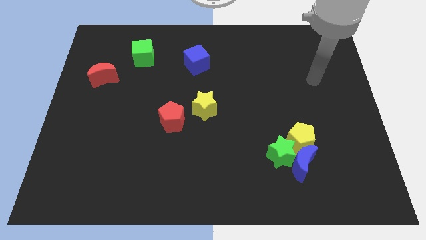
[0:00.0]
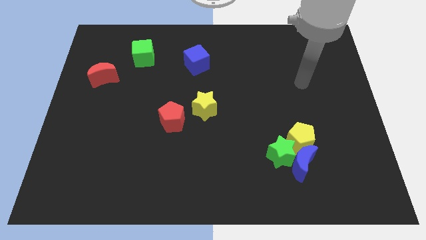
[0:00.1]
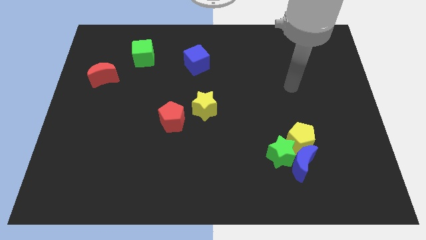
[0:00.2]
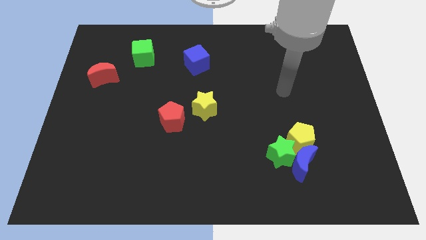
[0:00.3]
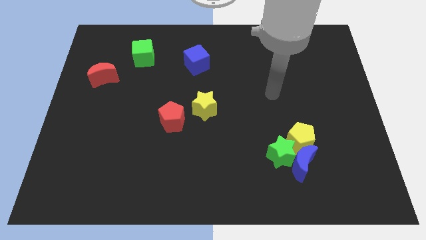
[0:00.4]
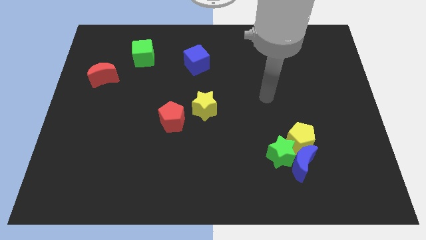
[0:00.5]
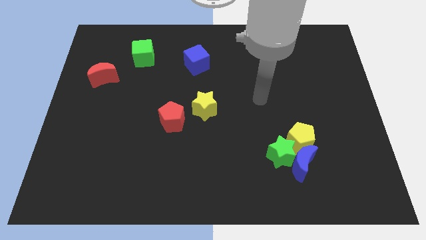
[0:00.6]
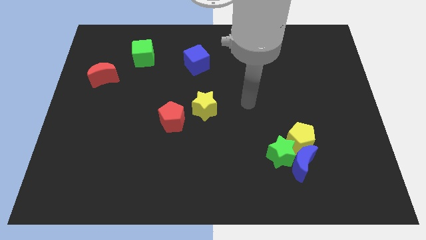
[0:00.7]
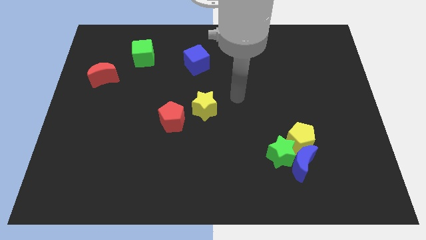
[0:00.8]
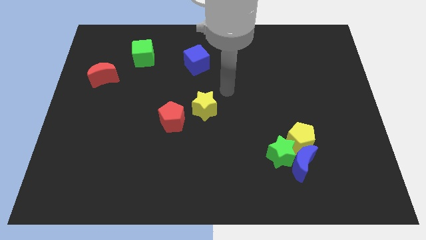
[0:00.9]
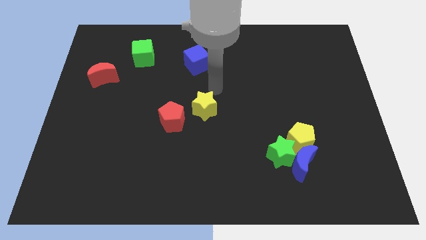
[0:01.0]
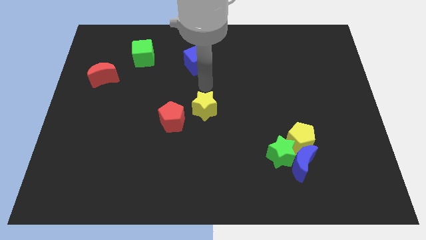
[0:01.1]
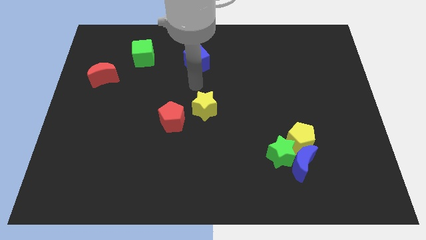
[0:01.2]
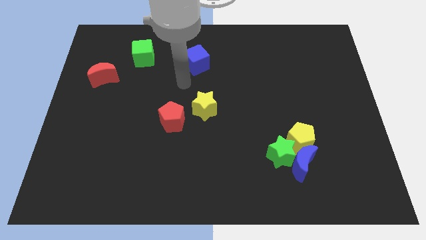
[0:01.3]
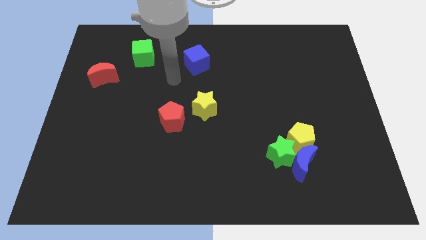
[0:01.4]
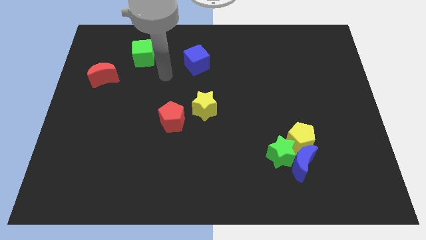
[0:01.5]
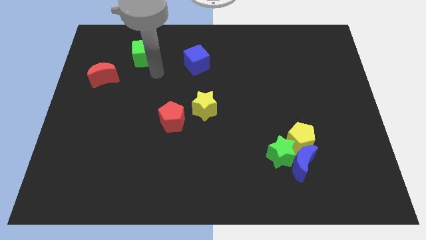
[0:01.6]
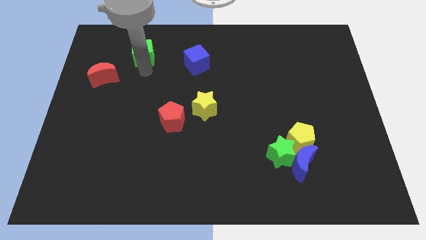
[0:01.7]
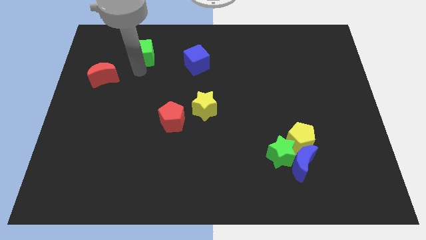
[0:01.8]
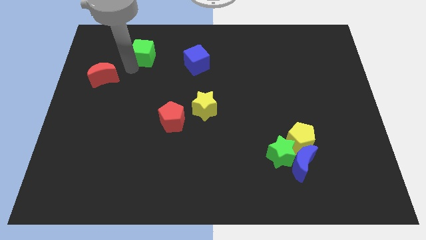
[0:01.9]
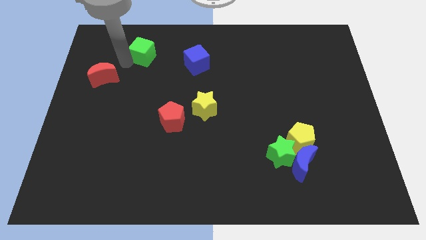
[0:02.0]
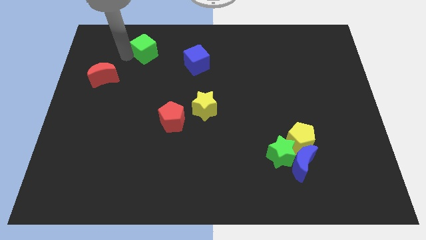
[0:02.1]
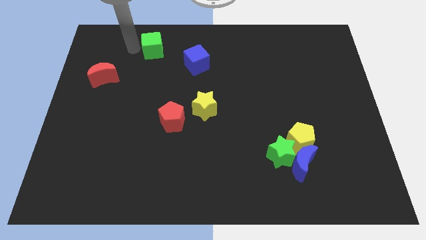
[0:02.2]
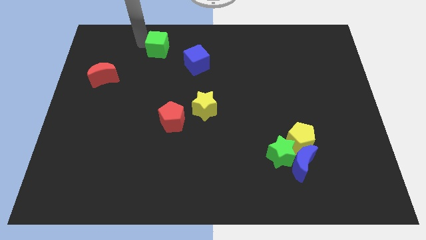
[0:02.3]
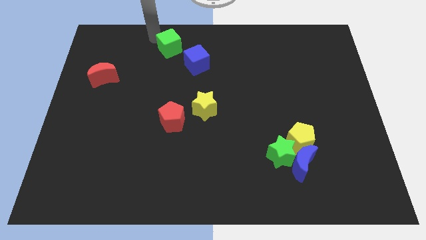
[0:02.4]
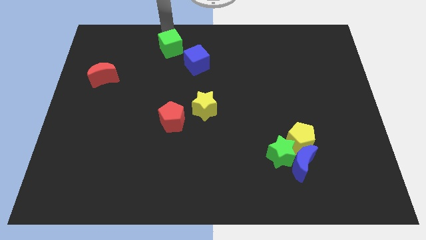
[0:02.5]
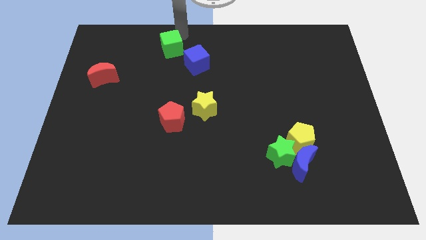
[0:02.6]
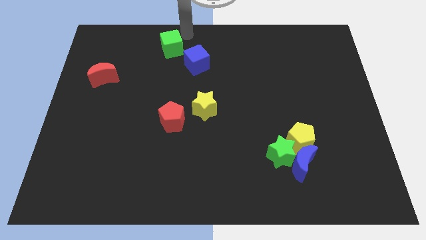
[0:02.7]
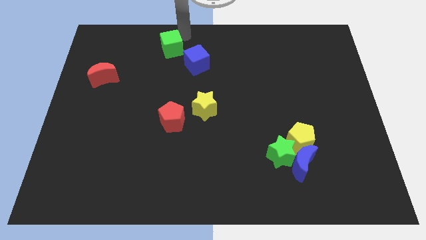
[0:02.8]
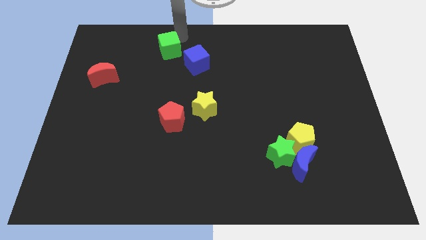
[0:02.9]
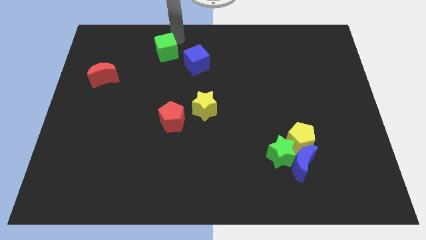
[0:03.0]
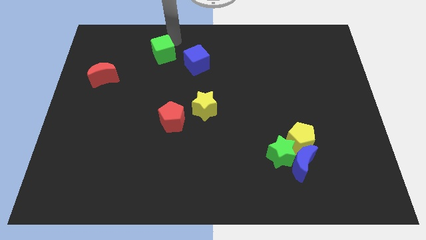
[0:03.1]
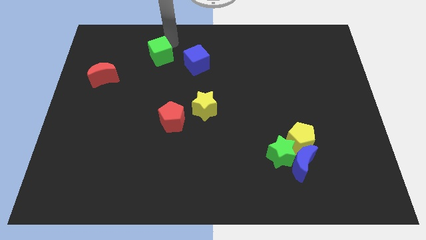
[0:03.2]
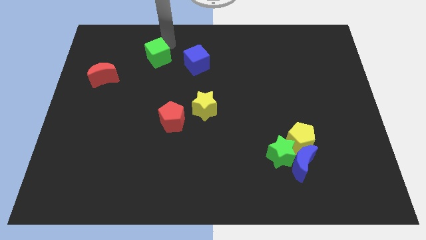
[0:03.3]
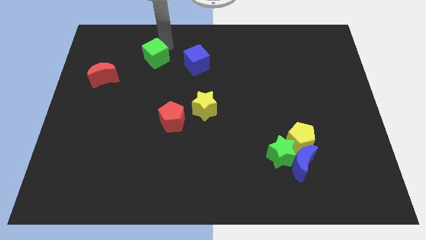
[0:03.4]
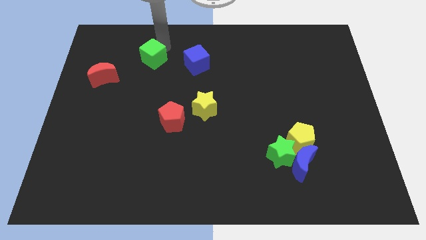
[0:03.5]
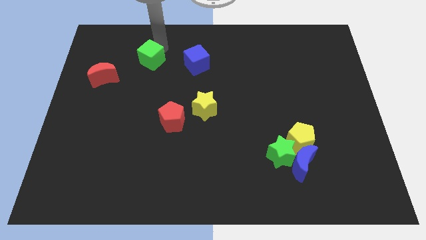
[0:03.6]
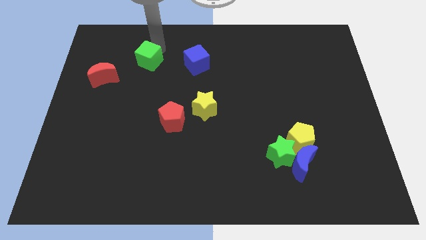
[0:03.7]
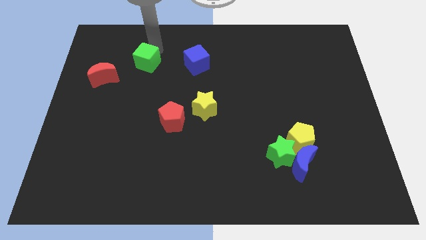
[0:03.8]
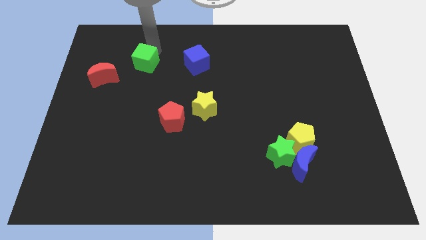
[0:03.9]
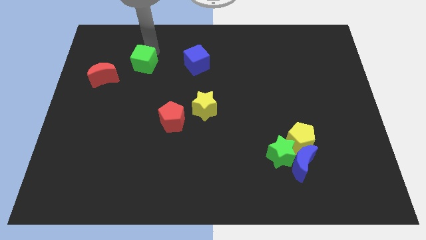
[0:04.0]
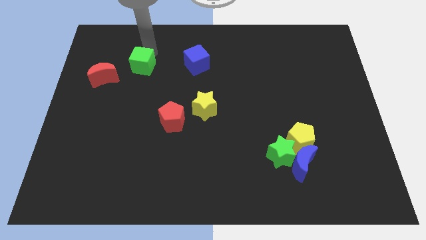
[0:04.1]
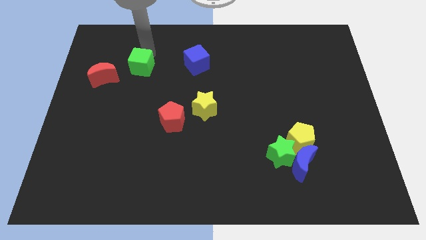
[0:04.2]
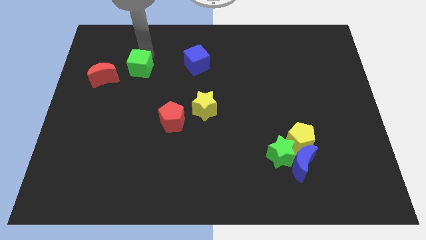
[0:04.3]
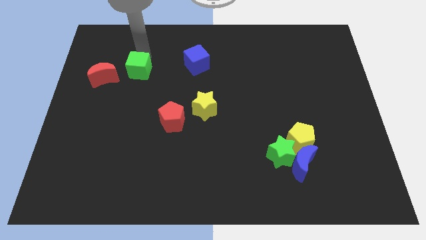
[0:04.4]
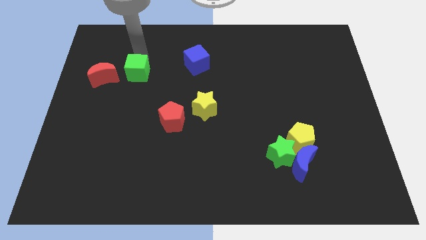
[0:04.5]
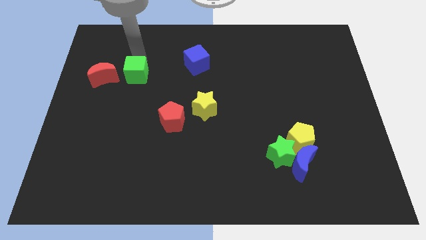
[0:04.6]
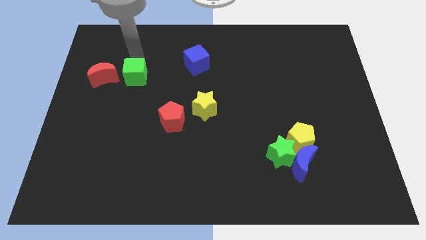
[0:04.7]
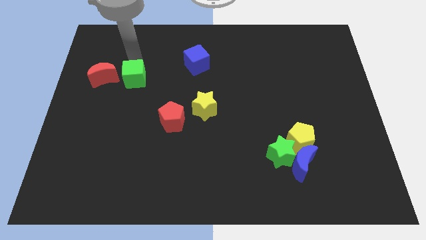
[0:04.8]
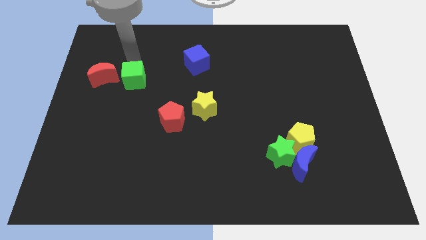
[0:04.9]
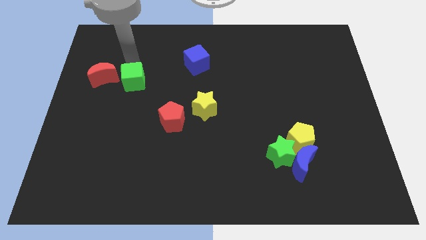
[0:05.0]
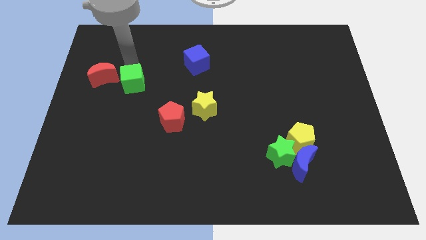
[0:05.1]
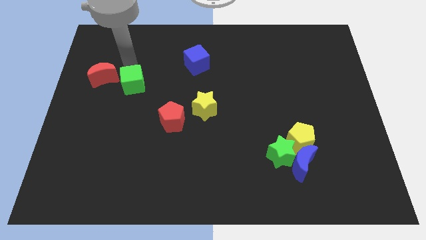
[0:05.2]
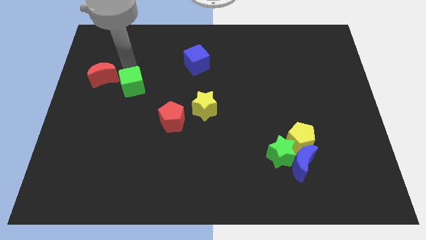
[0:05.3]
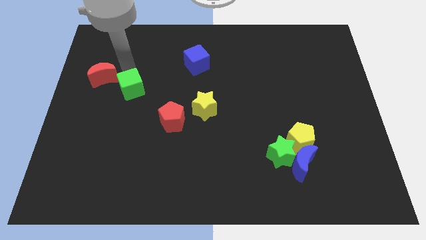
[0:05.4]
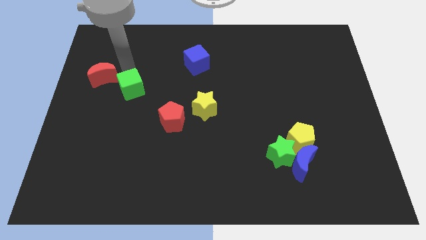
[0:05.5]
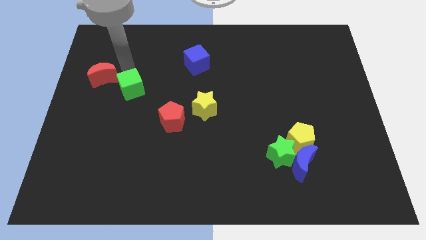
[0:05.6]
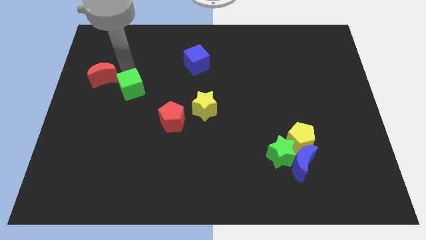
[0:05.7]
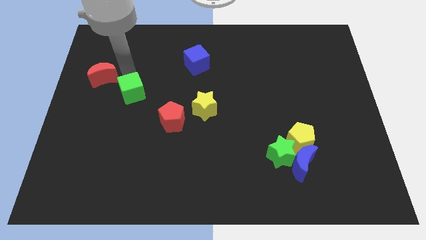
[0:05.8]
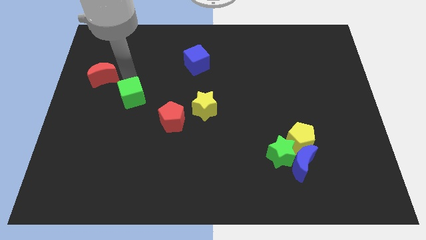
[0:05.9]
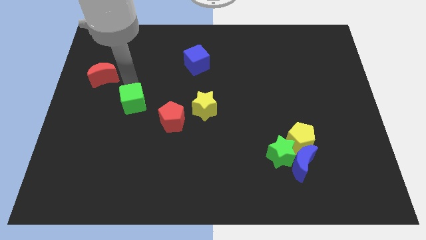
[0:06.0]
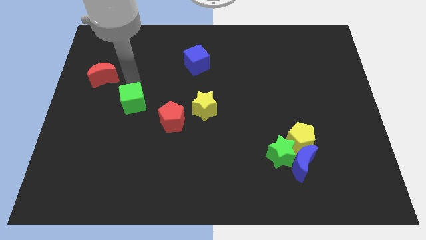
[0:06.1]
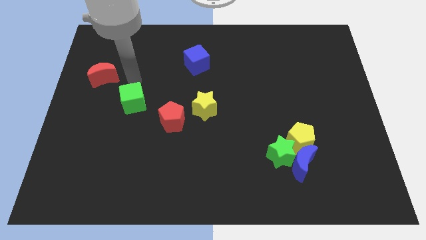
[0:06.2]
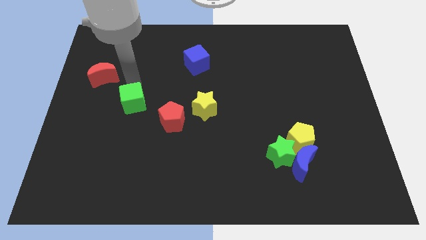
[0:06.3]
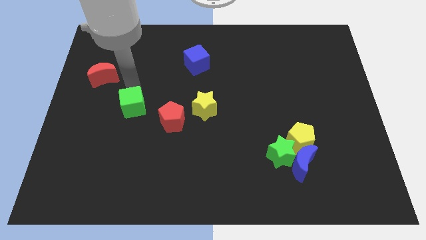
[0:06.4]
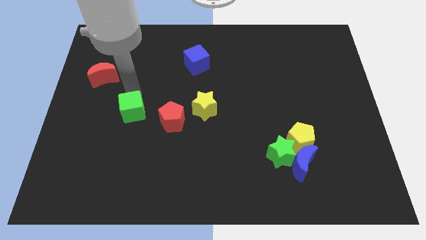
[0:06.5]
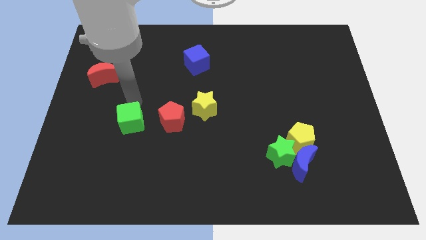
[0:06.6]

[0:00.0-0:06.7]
slide the green cube down

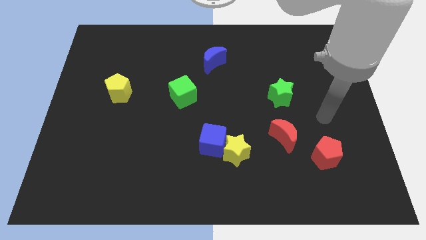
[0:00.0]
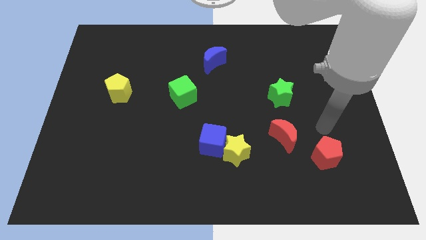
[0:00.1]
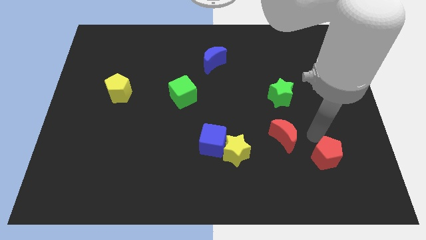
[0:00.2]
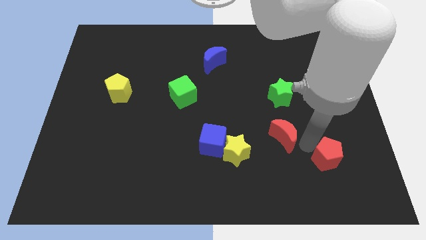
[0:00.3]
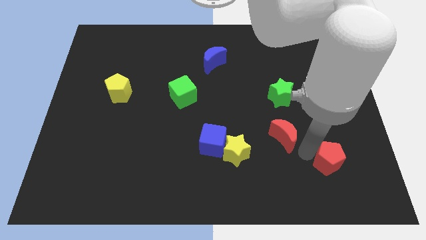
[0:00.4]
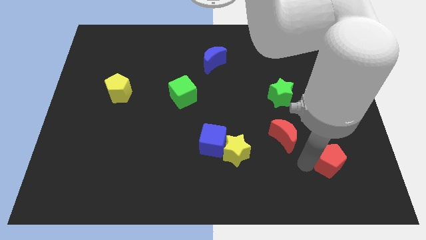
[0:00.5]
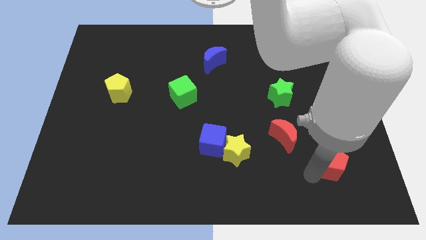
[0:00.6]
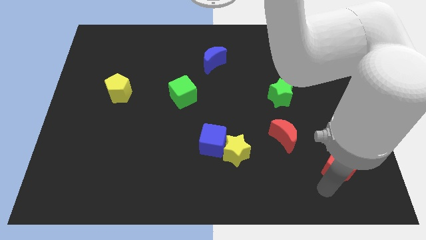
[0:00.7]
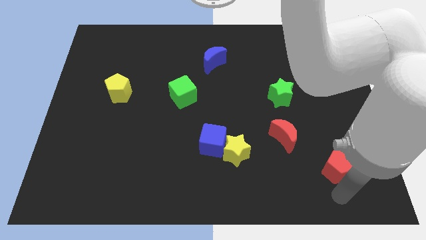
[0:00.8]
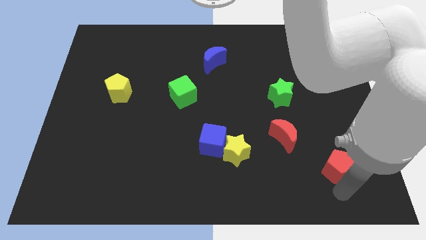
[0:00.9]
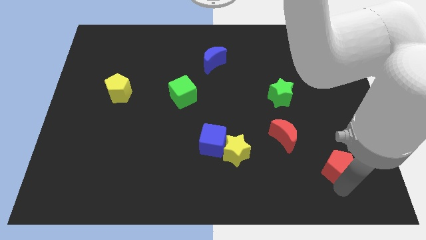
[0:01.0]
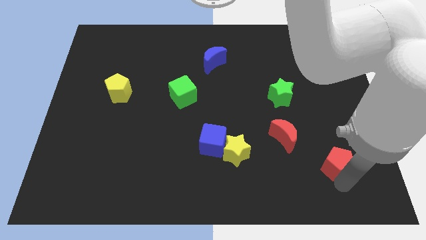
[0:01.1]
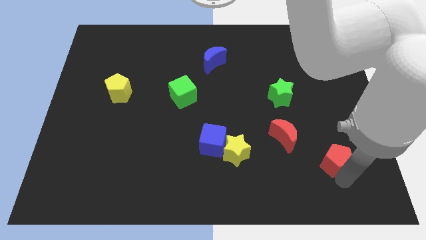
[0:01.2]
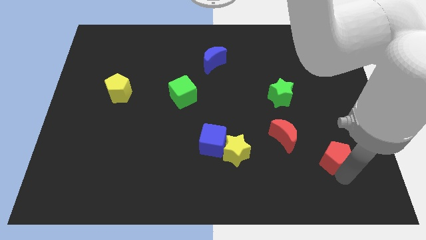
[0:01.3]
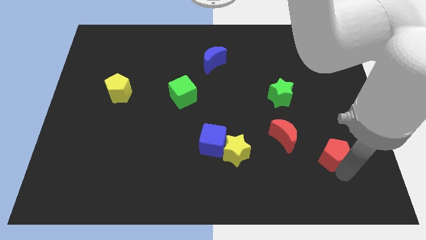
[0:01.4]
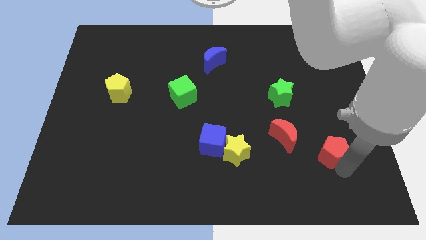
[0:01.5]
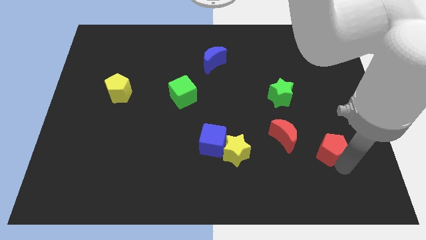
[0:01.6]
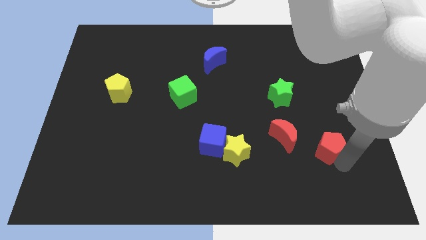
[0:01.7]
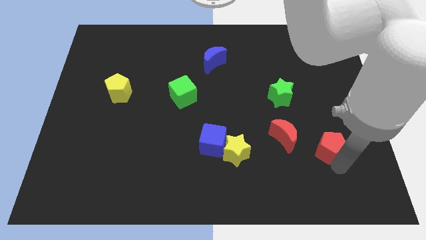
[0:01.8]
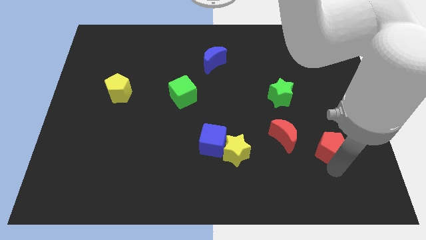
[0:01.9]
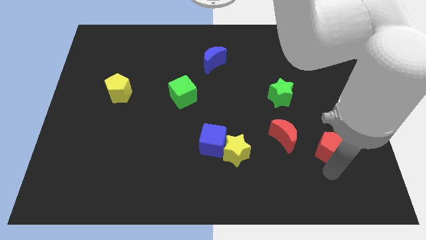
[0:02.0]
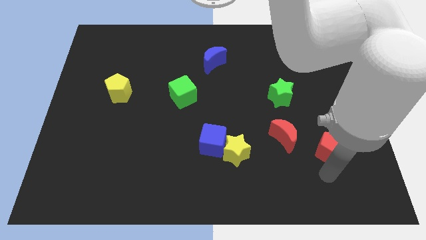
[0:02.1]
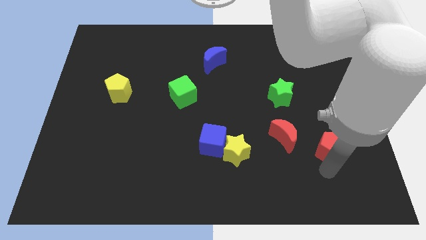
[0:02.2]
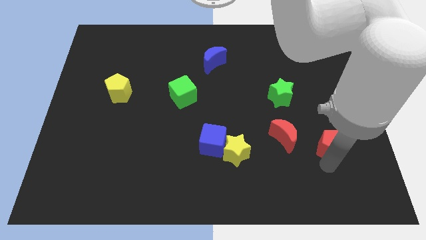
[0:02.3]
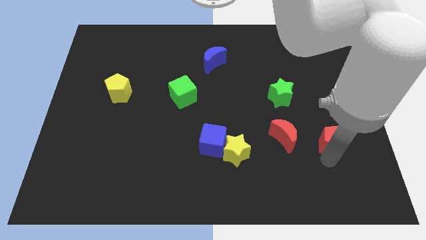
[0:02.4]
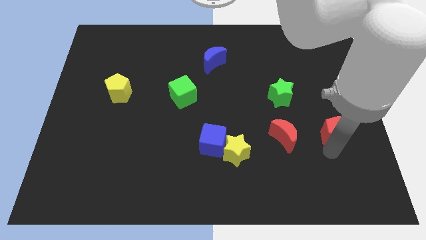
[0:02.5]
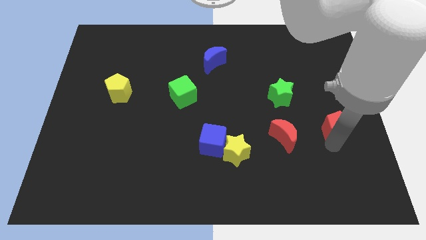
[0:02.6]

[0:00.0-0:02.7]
slide the red pentagon up slightly
